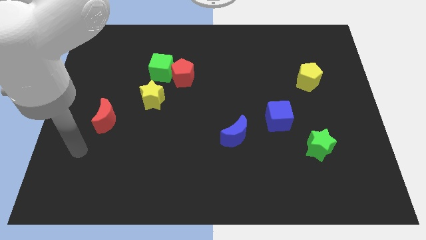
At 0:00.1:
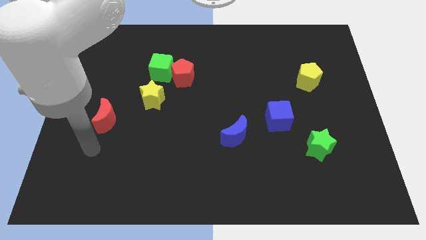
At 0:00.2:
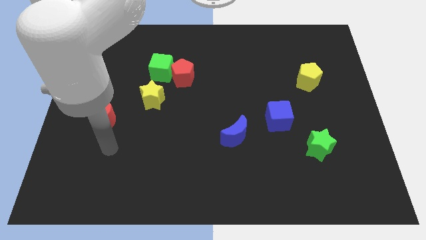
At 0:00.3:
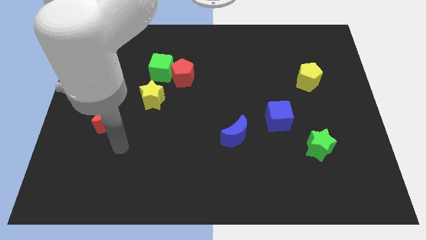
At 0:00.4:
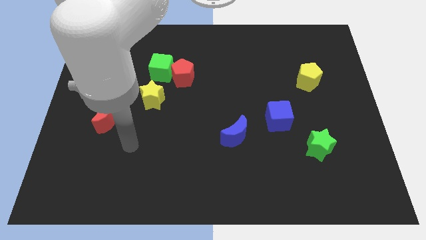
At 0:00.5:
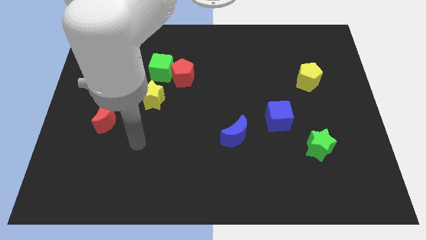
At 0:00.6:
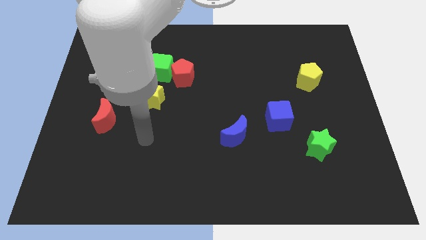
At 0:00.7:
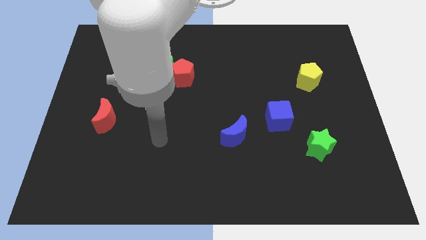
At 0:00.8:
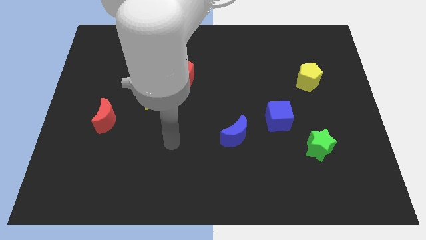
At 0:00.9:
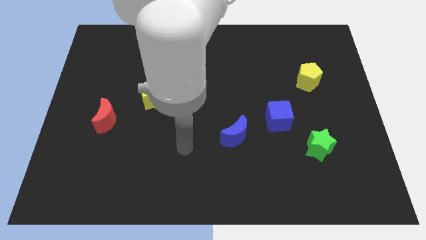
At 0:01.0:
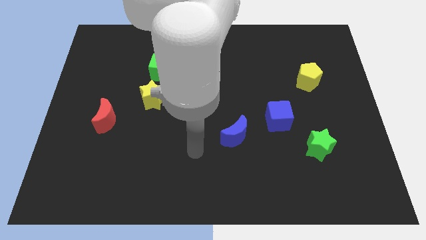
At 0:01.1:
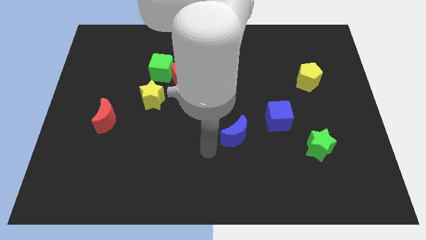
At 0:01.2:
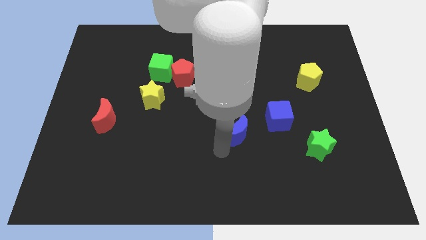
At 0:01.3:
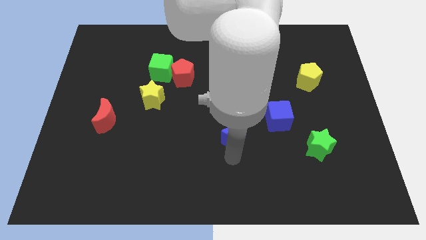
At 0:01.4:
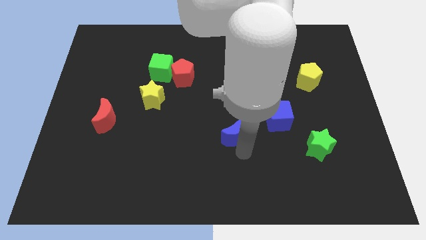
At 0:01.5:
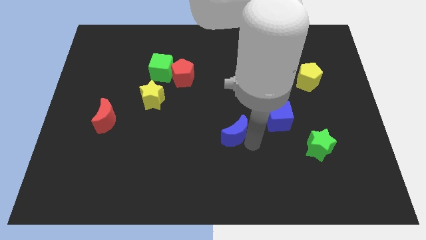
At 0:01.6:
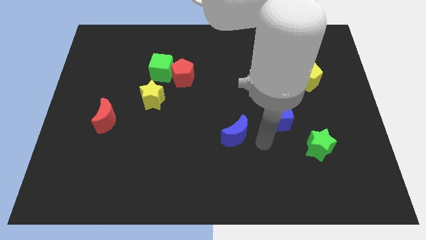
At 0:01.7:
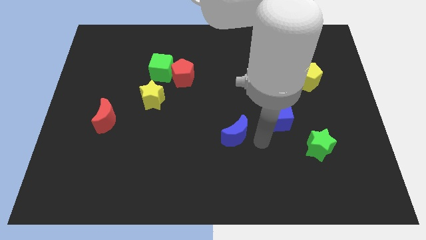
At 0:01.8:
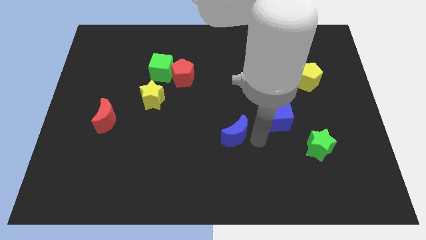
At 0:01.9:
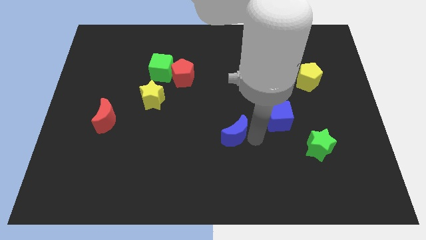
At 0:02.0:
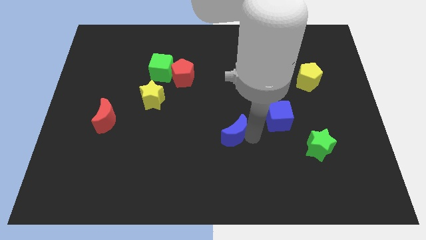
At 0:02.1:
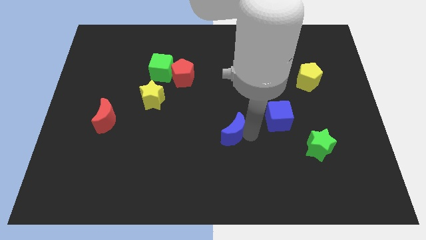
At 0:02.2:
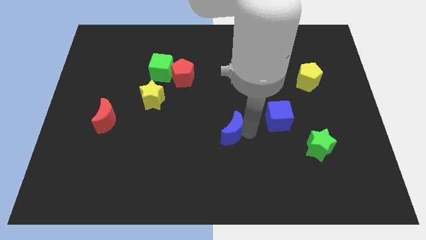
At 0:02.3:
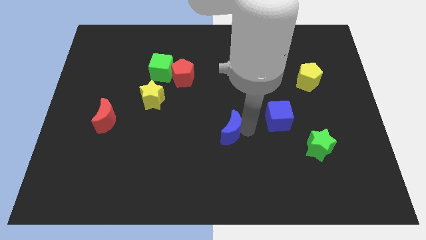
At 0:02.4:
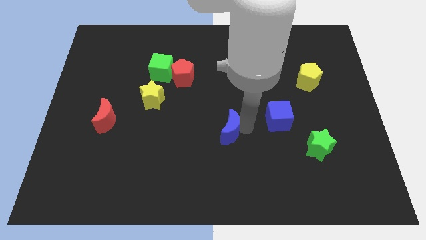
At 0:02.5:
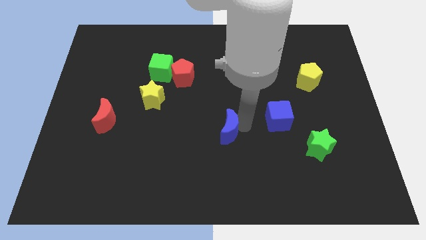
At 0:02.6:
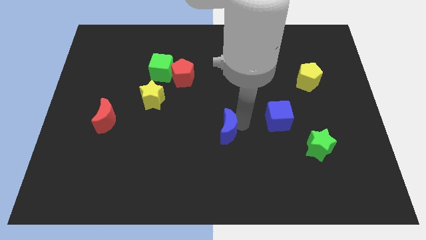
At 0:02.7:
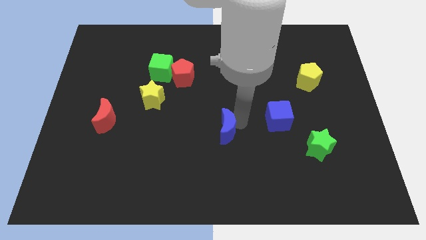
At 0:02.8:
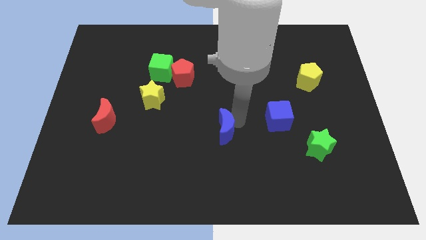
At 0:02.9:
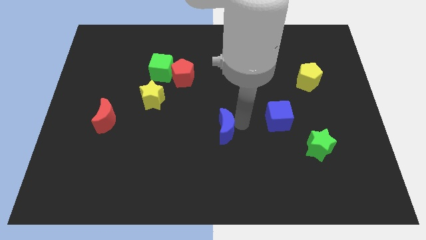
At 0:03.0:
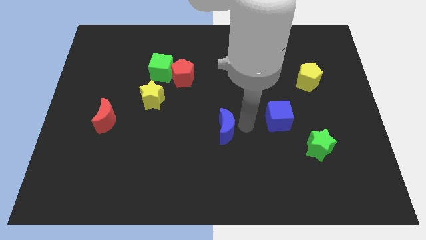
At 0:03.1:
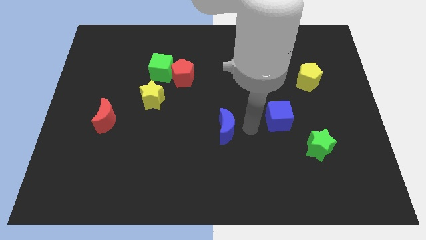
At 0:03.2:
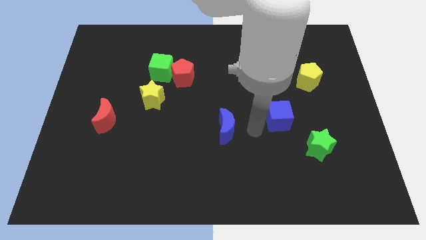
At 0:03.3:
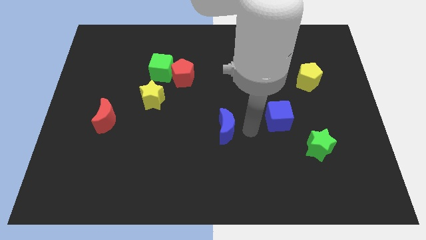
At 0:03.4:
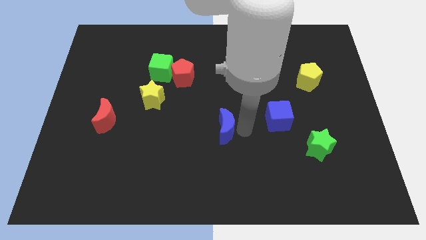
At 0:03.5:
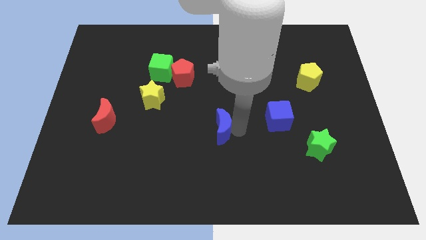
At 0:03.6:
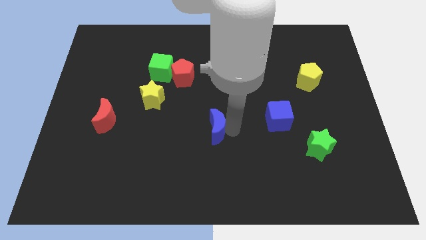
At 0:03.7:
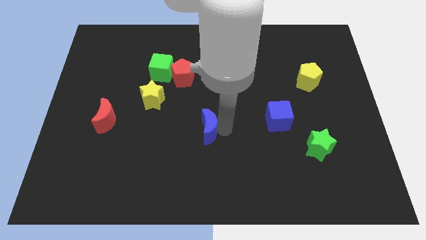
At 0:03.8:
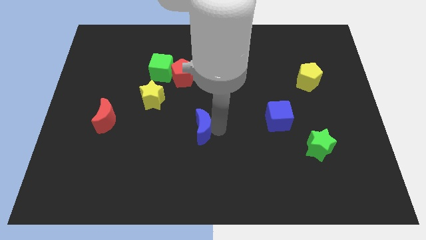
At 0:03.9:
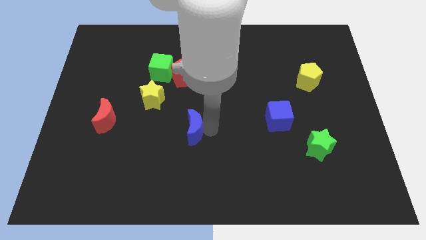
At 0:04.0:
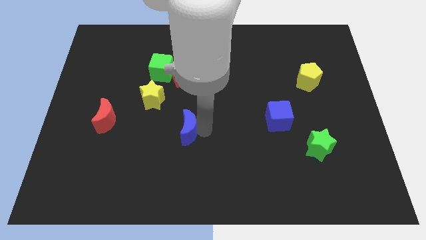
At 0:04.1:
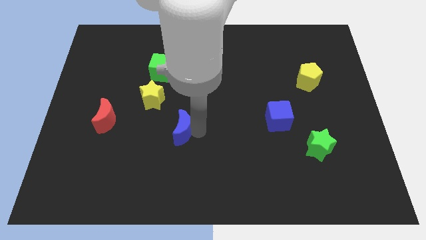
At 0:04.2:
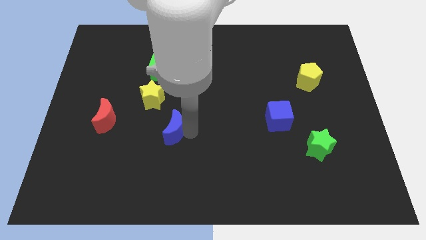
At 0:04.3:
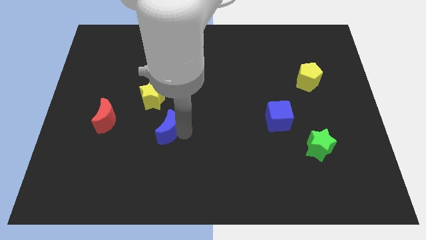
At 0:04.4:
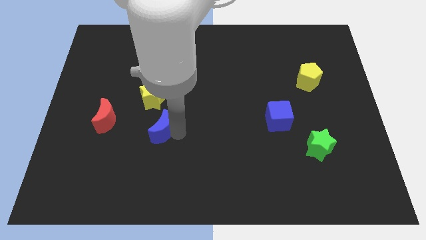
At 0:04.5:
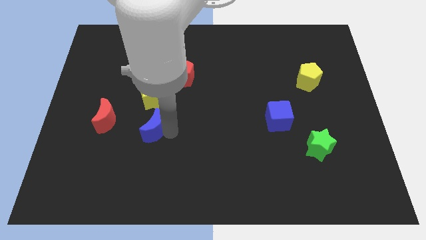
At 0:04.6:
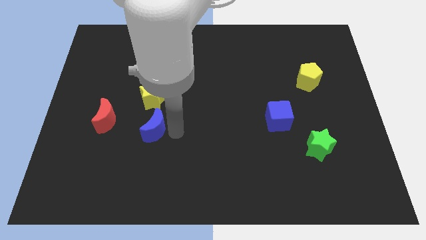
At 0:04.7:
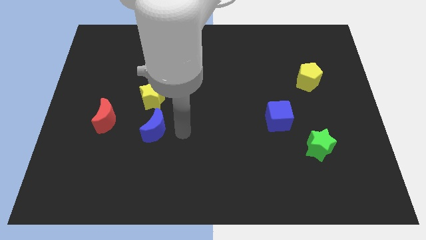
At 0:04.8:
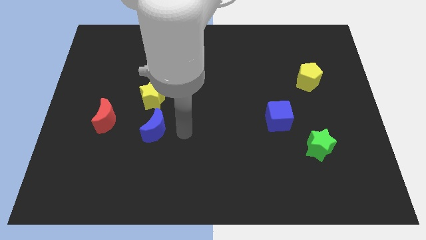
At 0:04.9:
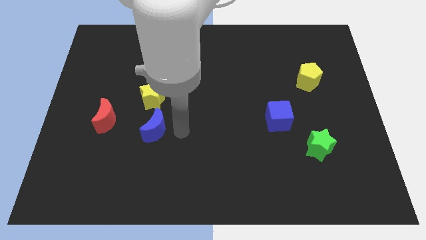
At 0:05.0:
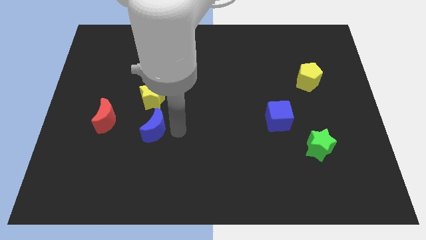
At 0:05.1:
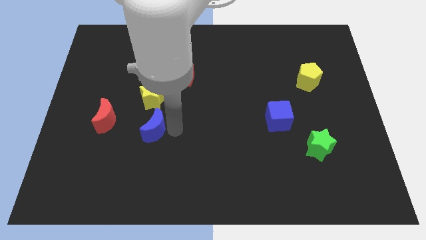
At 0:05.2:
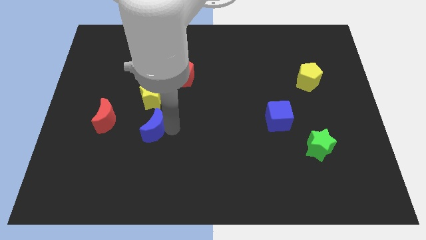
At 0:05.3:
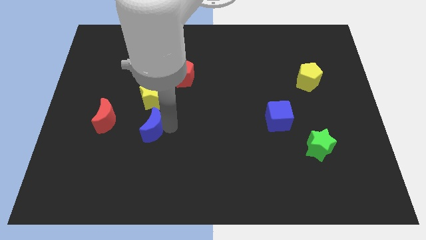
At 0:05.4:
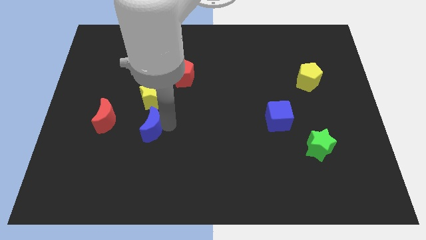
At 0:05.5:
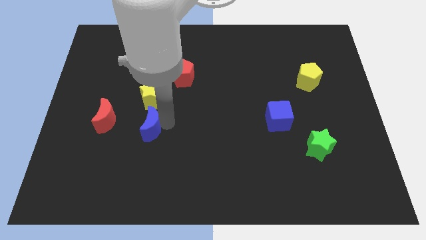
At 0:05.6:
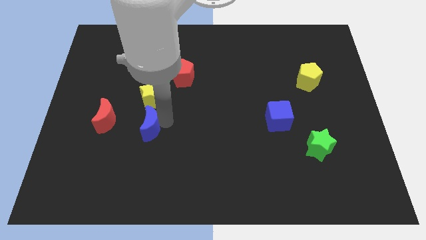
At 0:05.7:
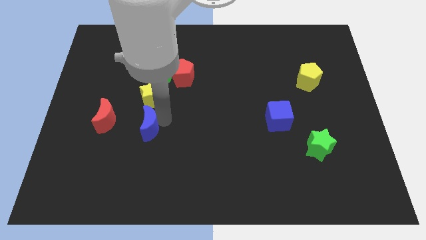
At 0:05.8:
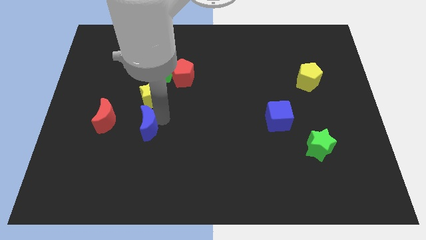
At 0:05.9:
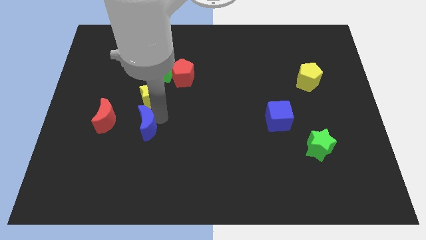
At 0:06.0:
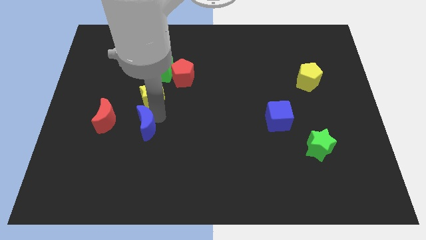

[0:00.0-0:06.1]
move the blue moon left

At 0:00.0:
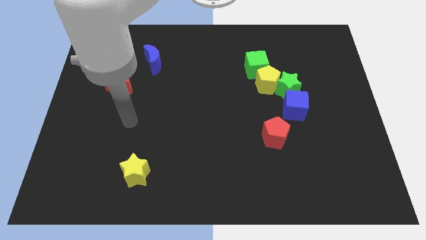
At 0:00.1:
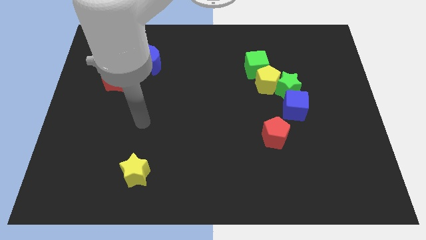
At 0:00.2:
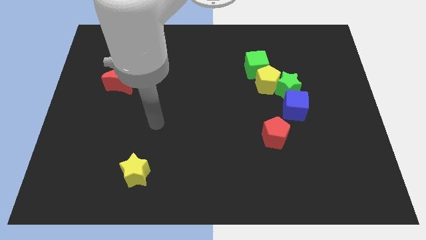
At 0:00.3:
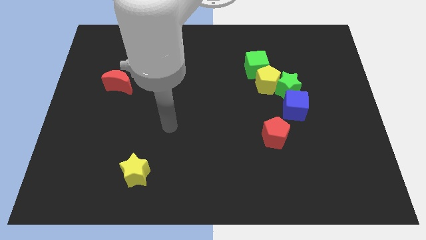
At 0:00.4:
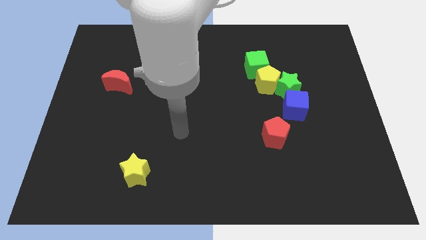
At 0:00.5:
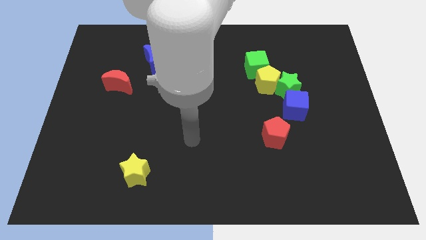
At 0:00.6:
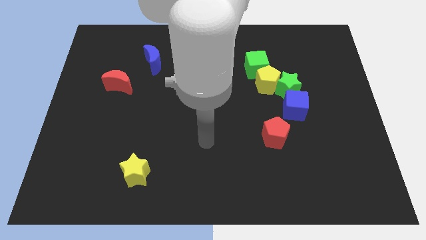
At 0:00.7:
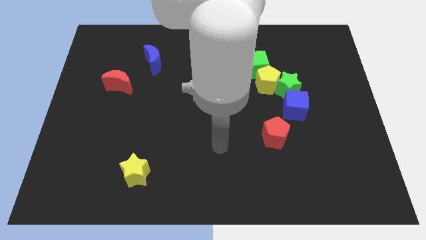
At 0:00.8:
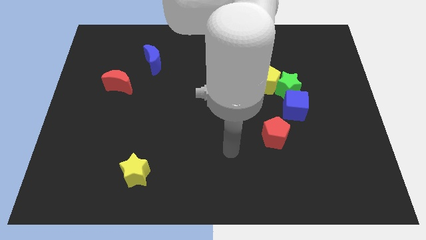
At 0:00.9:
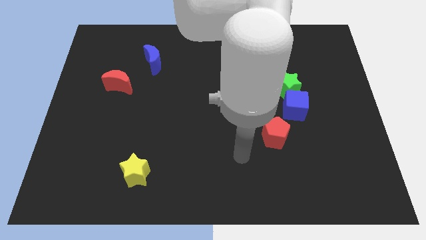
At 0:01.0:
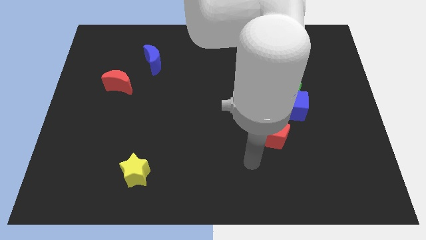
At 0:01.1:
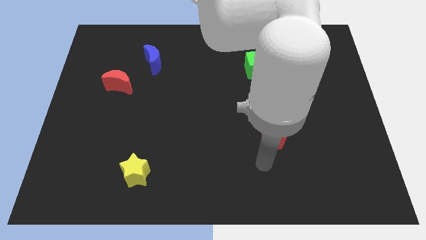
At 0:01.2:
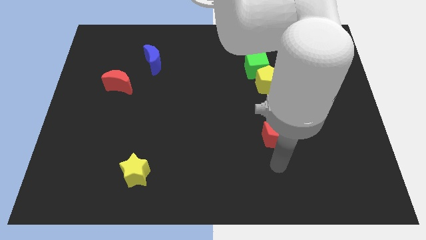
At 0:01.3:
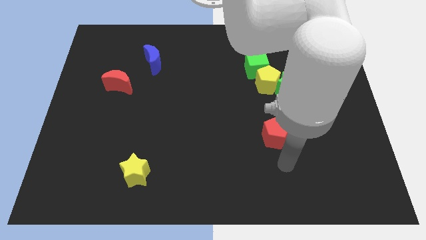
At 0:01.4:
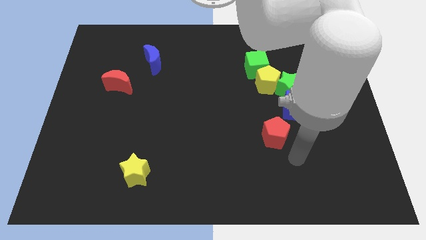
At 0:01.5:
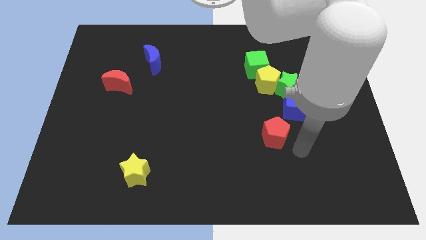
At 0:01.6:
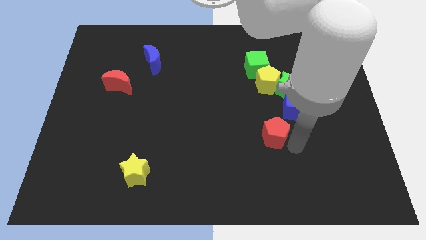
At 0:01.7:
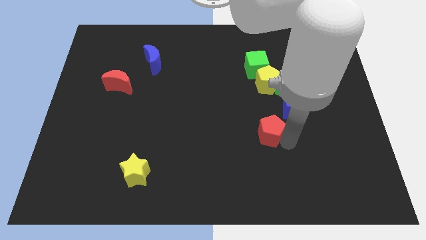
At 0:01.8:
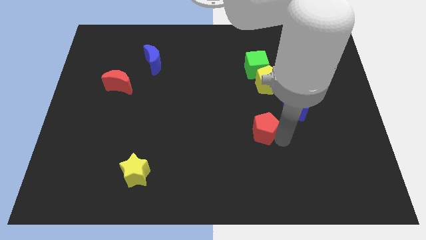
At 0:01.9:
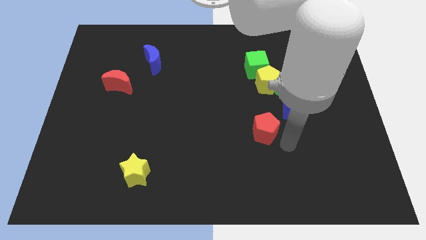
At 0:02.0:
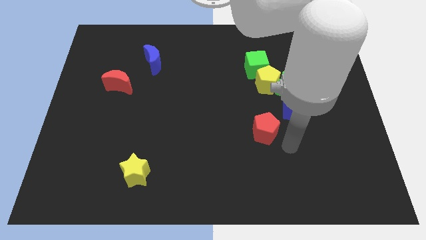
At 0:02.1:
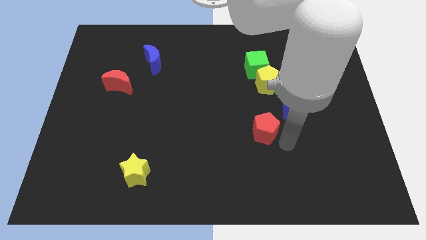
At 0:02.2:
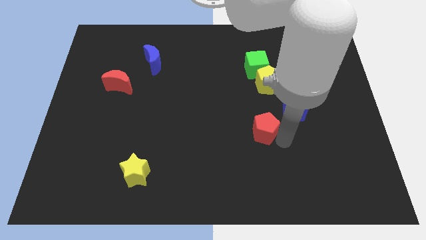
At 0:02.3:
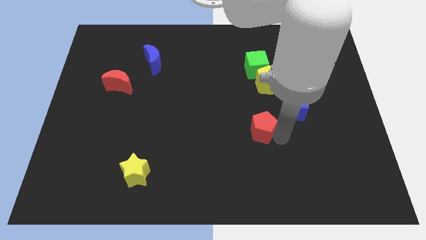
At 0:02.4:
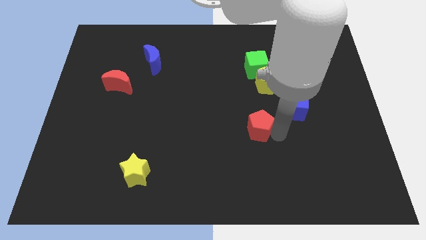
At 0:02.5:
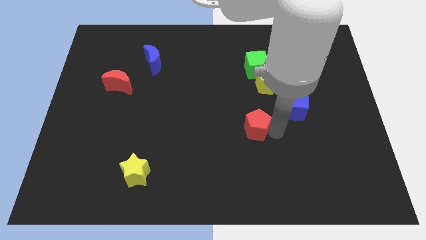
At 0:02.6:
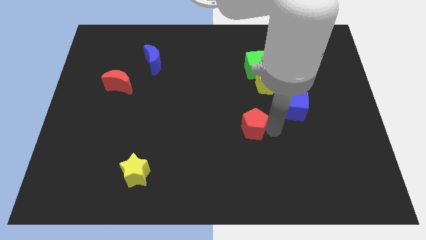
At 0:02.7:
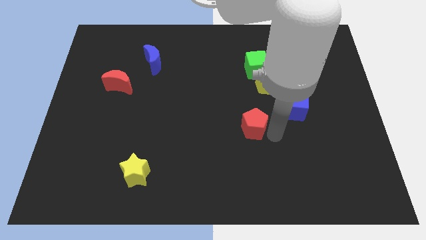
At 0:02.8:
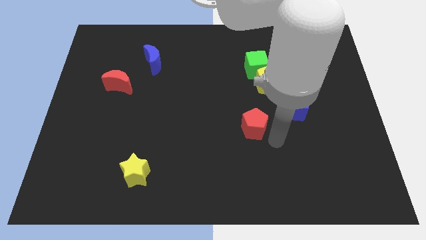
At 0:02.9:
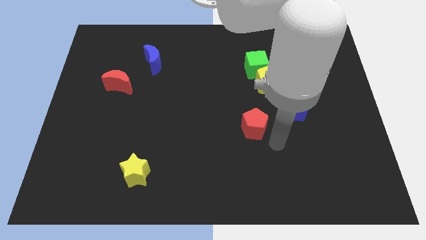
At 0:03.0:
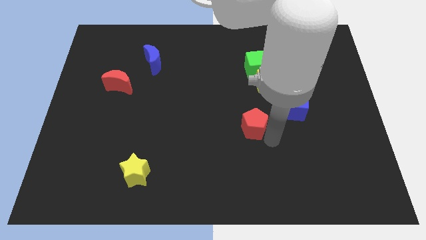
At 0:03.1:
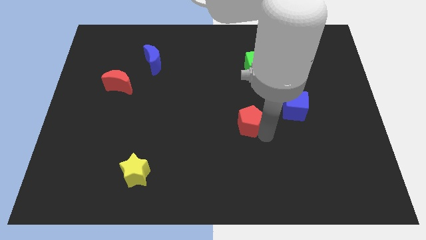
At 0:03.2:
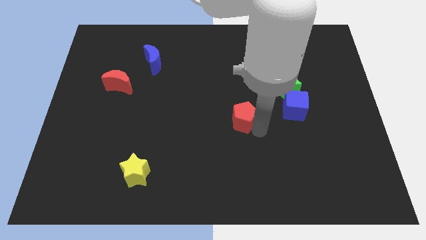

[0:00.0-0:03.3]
slightly move the red pentagon upwards and to the left
